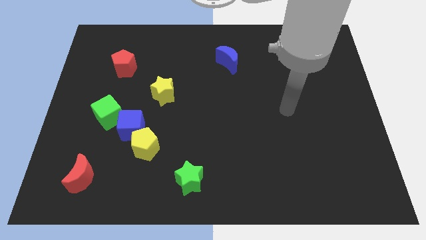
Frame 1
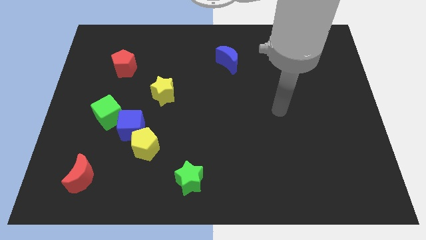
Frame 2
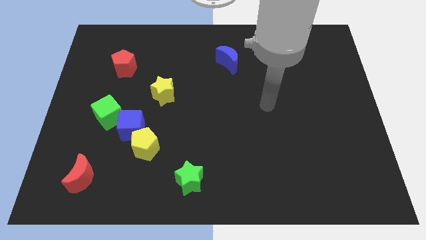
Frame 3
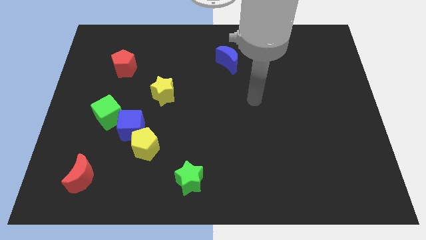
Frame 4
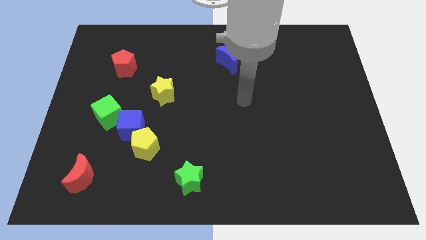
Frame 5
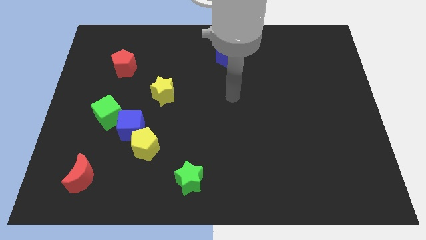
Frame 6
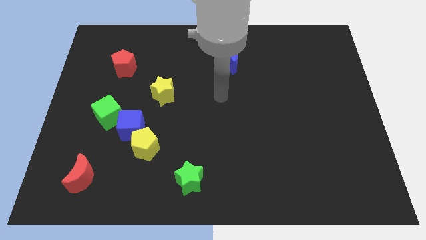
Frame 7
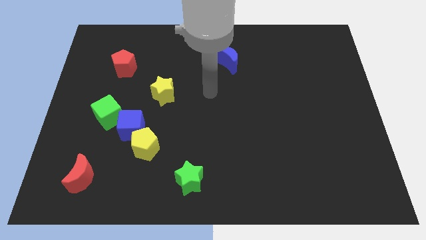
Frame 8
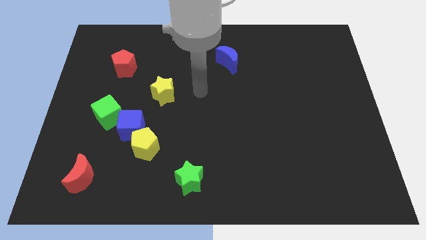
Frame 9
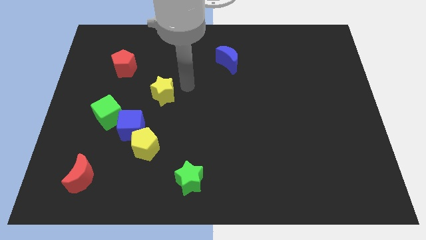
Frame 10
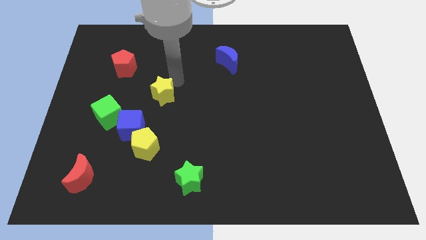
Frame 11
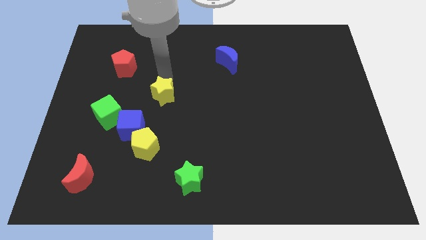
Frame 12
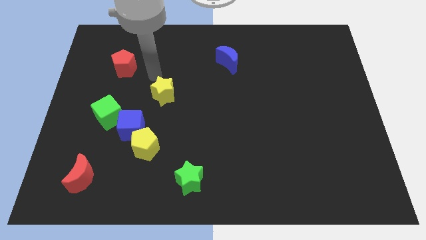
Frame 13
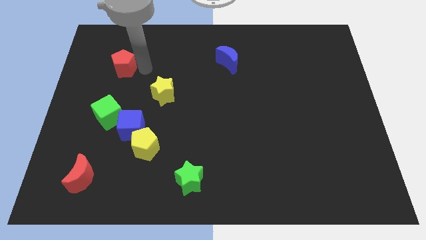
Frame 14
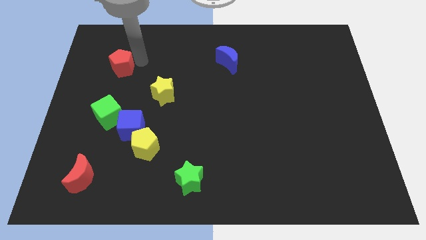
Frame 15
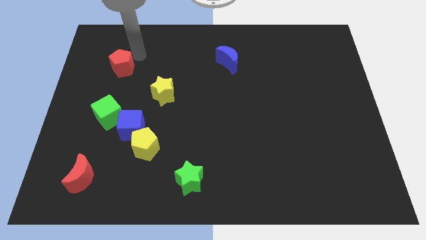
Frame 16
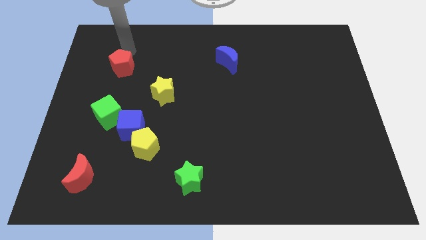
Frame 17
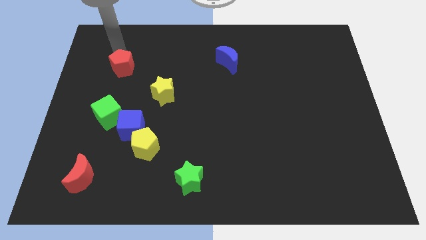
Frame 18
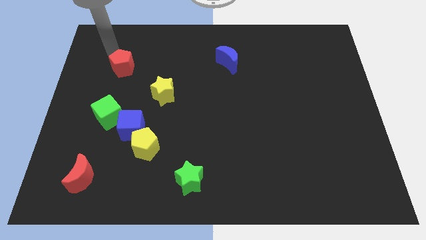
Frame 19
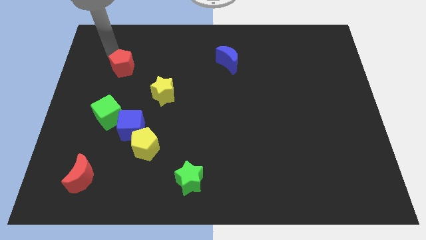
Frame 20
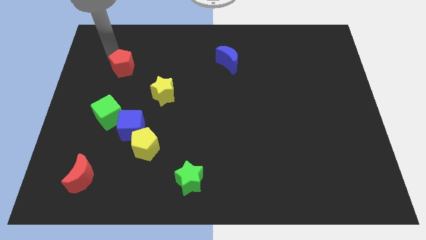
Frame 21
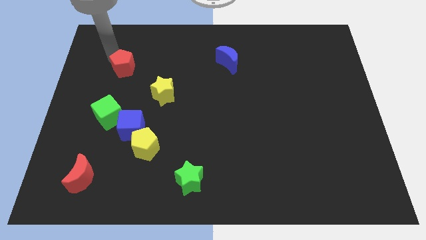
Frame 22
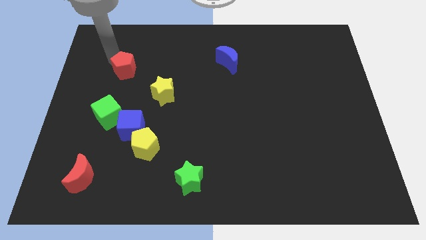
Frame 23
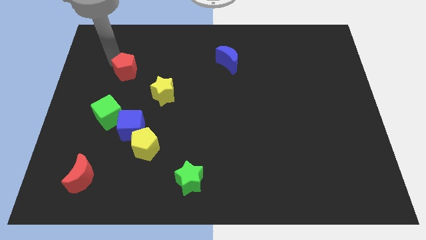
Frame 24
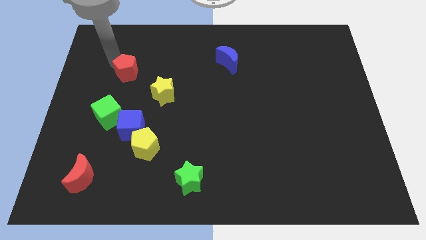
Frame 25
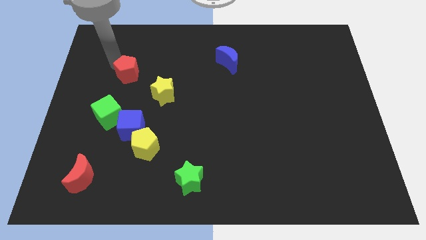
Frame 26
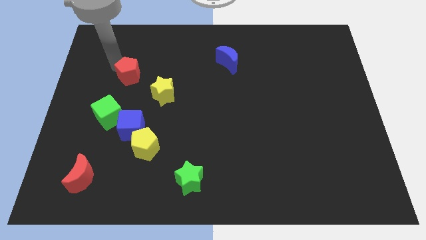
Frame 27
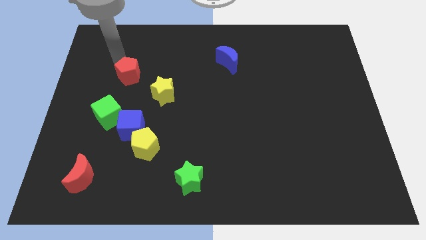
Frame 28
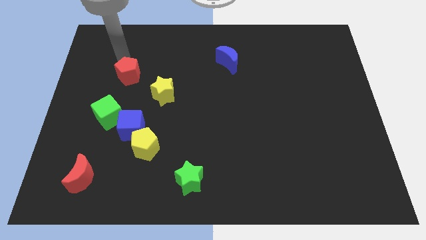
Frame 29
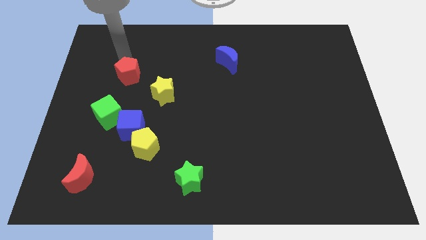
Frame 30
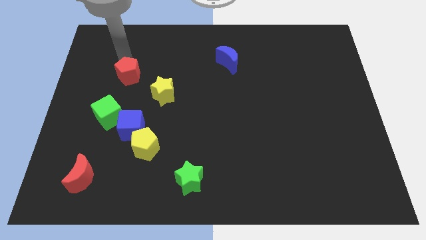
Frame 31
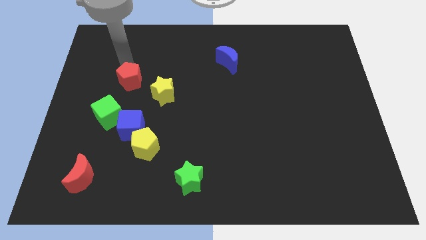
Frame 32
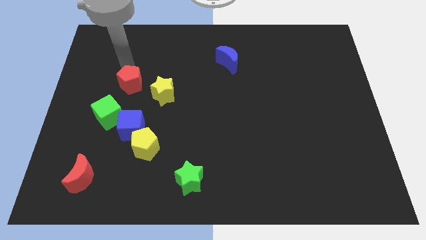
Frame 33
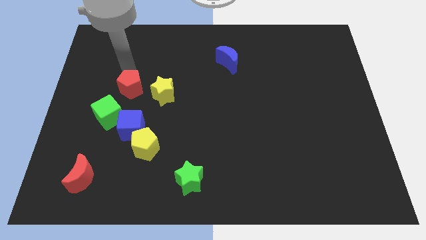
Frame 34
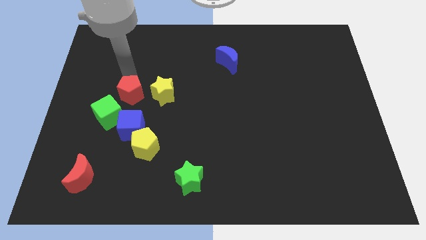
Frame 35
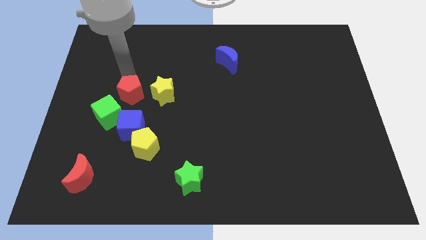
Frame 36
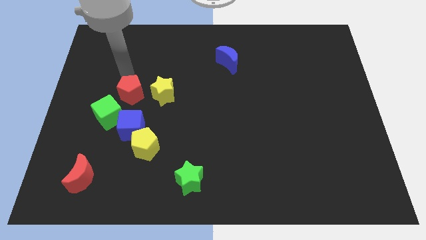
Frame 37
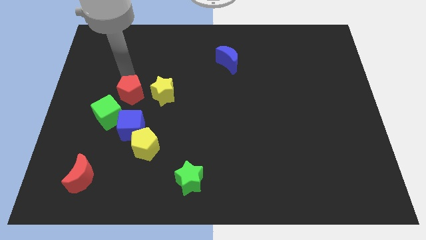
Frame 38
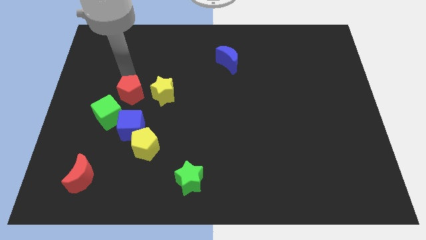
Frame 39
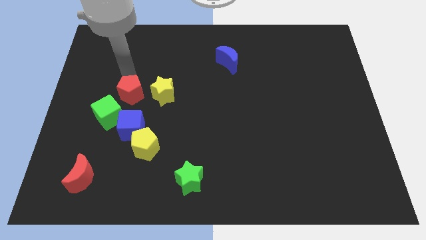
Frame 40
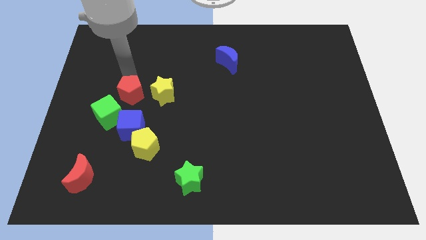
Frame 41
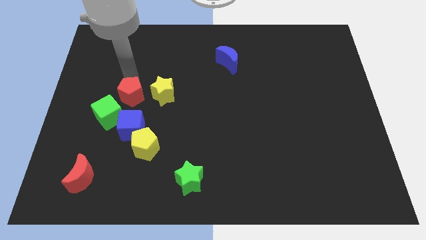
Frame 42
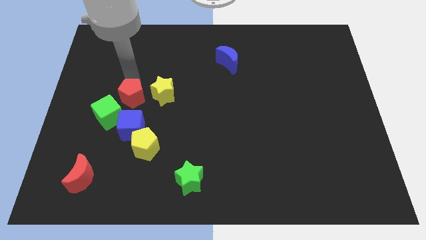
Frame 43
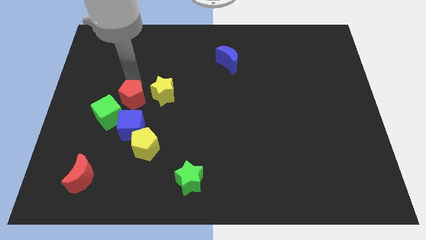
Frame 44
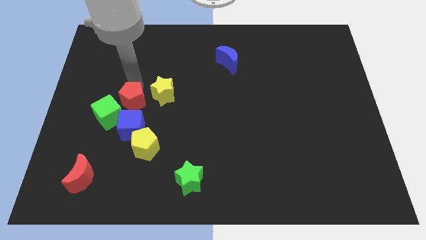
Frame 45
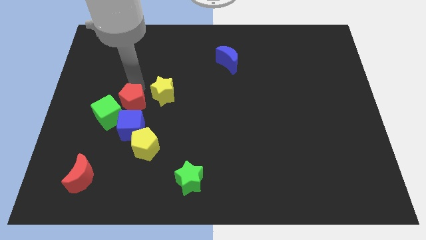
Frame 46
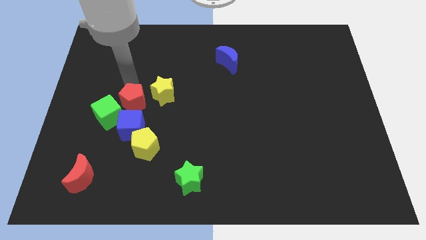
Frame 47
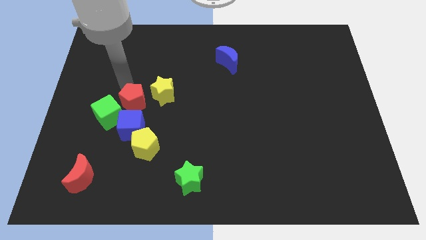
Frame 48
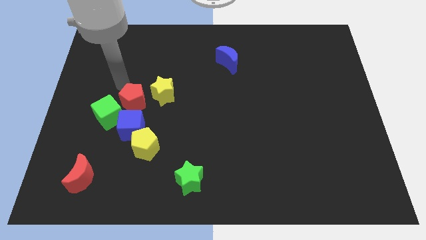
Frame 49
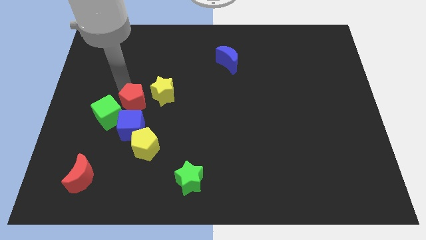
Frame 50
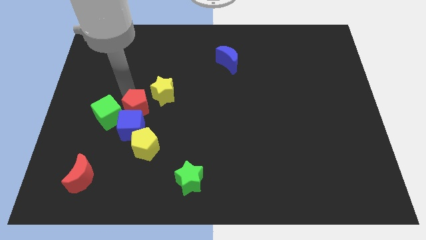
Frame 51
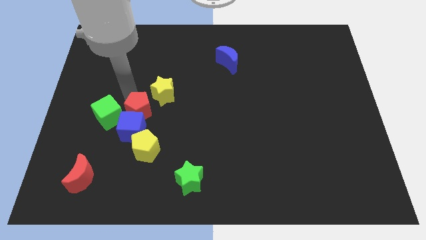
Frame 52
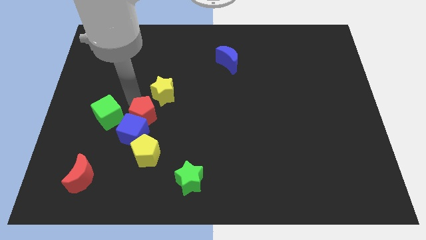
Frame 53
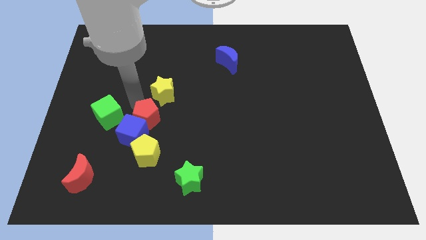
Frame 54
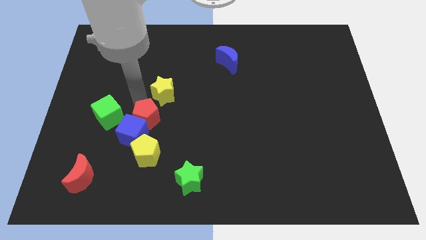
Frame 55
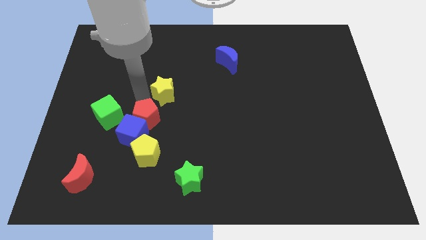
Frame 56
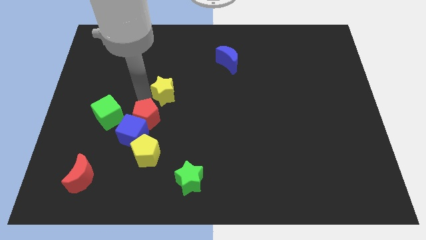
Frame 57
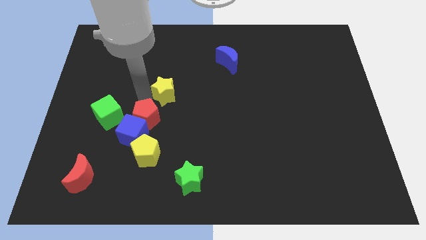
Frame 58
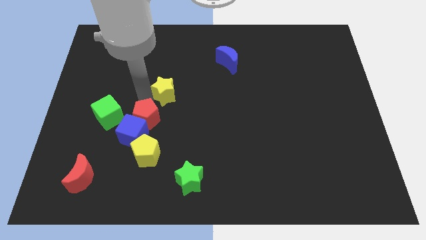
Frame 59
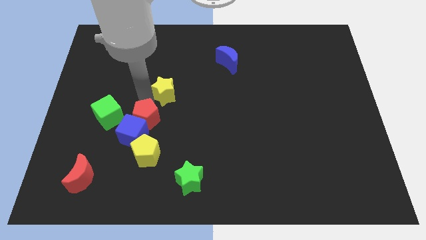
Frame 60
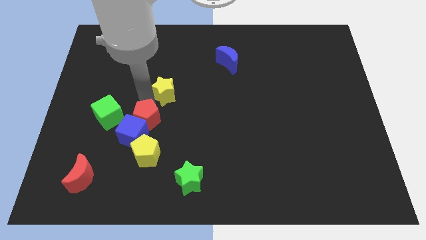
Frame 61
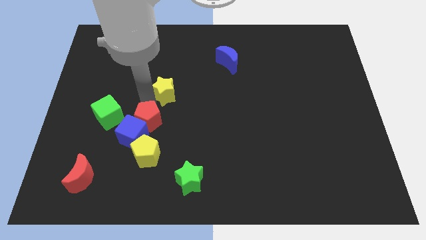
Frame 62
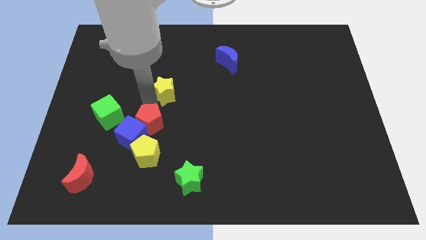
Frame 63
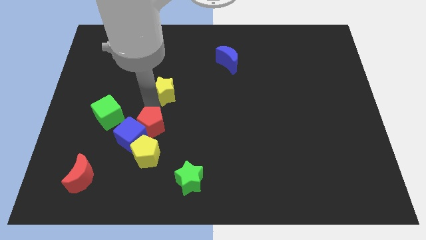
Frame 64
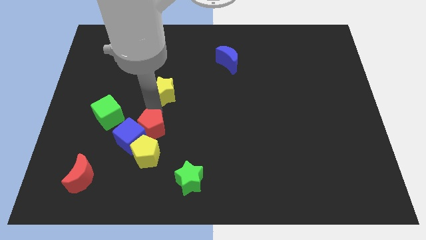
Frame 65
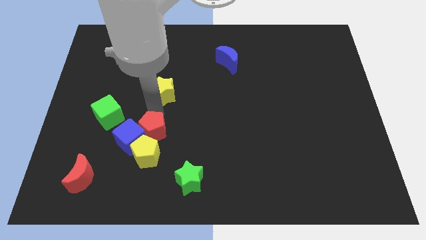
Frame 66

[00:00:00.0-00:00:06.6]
slide the red pentagon next to the yellow pentagon
